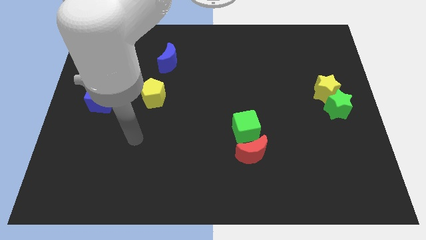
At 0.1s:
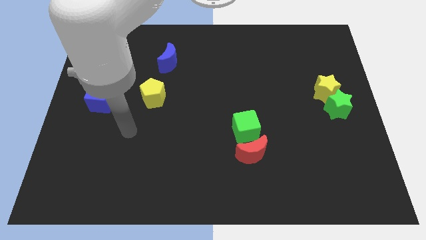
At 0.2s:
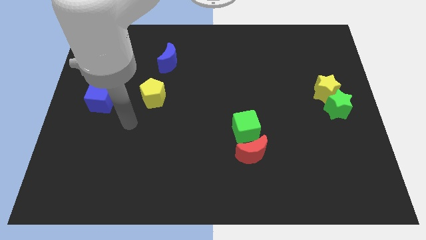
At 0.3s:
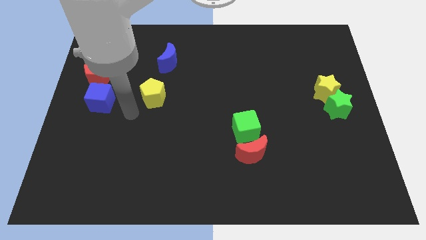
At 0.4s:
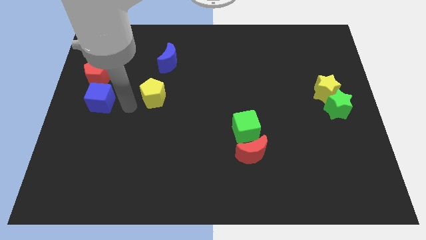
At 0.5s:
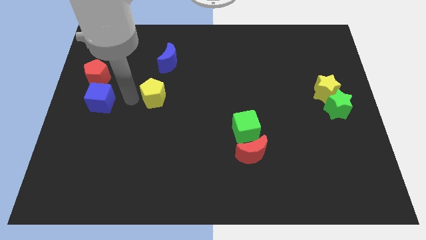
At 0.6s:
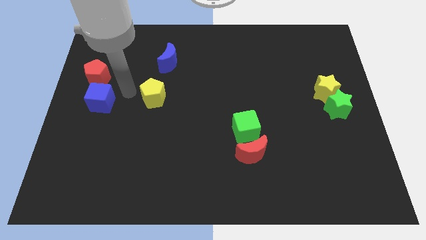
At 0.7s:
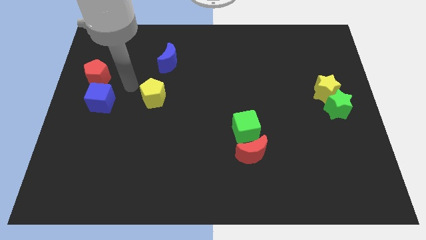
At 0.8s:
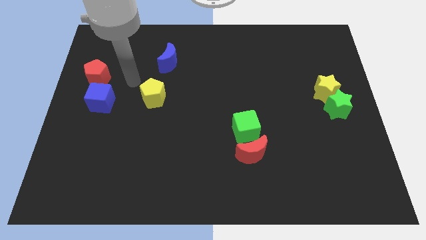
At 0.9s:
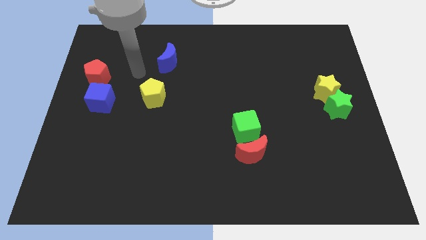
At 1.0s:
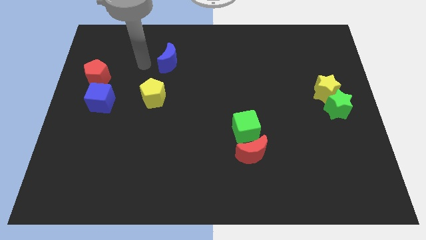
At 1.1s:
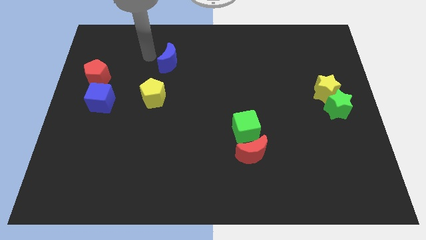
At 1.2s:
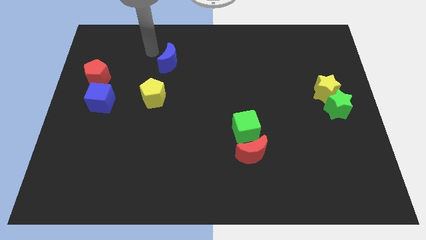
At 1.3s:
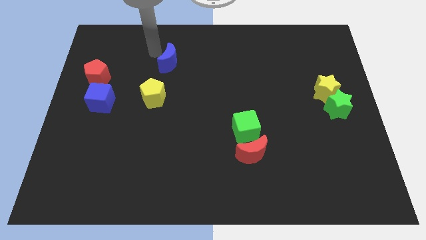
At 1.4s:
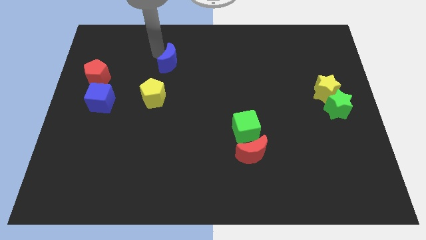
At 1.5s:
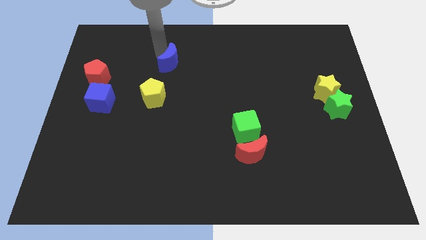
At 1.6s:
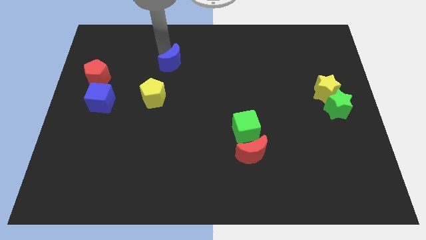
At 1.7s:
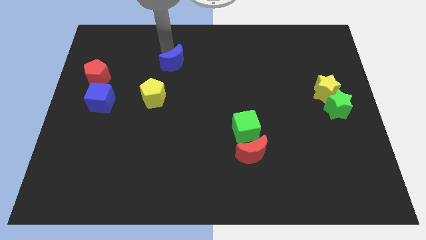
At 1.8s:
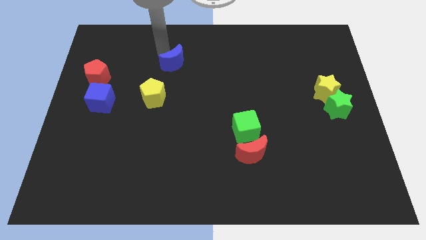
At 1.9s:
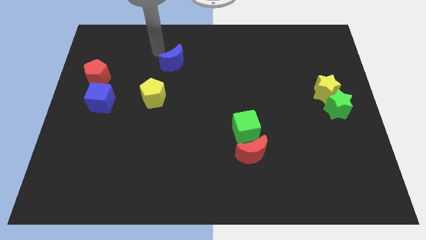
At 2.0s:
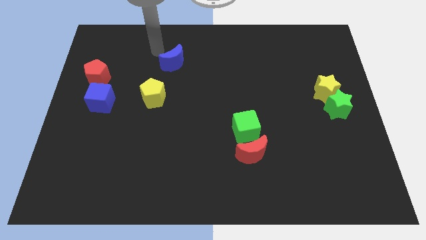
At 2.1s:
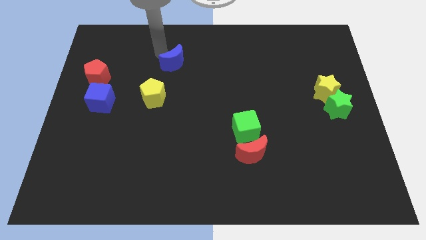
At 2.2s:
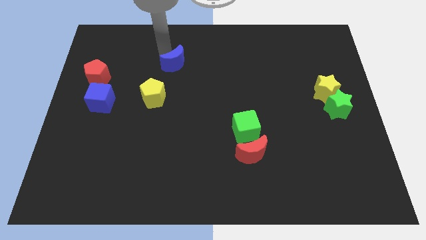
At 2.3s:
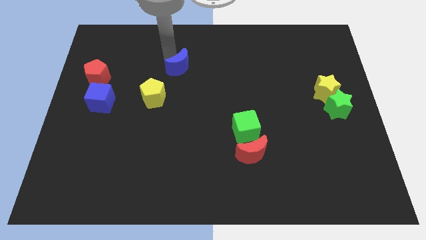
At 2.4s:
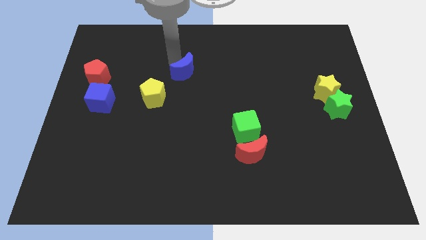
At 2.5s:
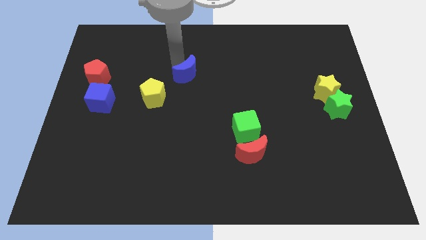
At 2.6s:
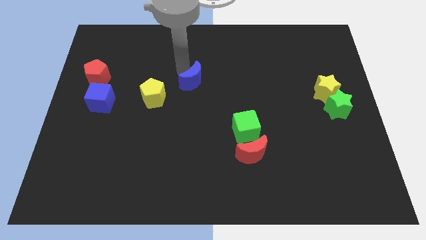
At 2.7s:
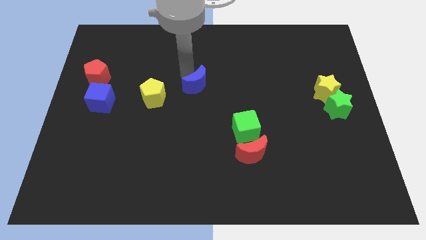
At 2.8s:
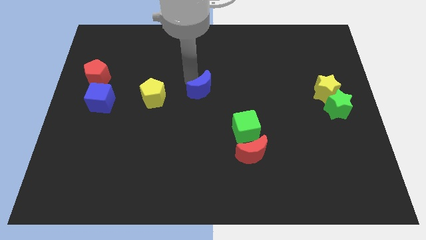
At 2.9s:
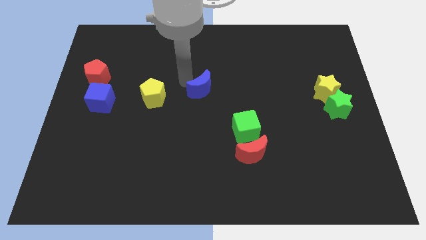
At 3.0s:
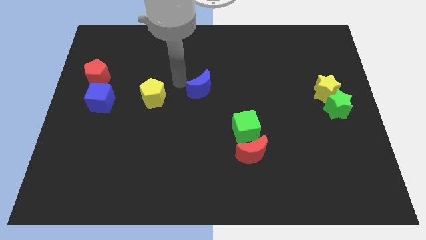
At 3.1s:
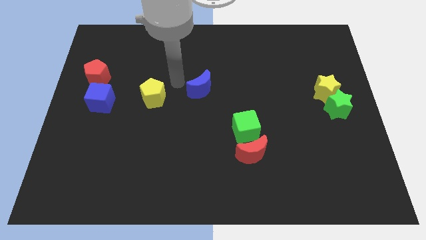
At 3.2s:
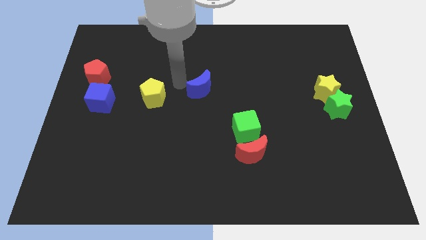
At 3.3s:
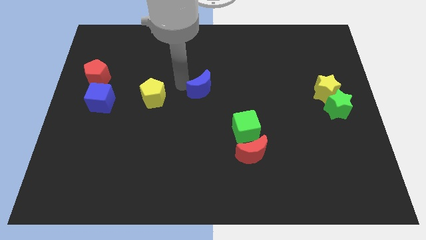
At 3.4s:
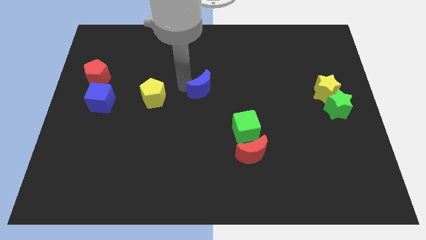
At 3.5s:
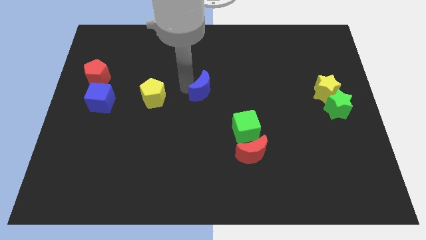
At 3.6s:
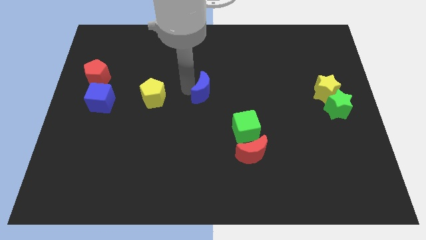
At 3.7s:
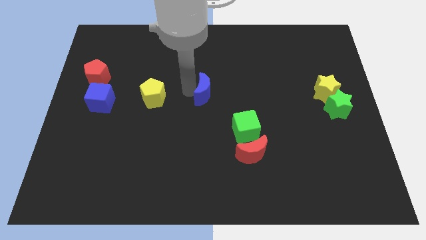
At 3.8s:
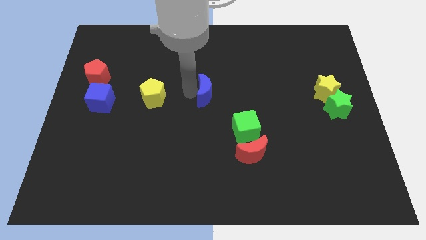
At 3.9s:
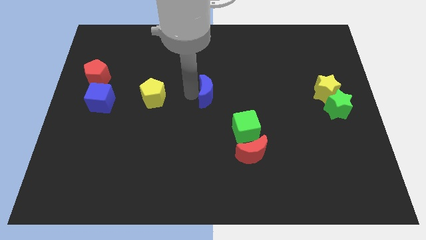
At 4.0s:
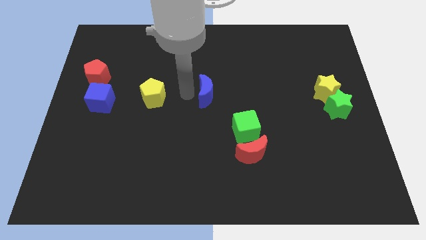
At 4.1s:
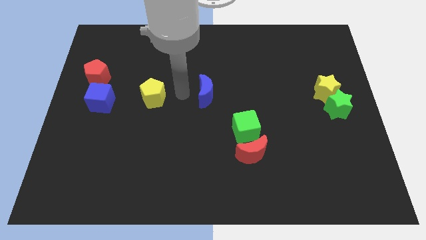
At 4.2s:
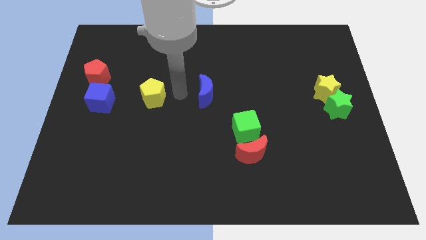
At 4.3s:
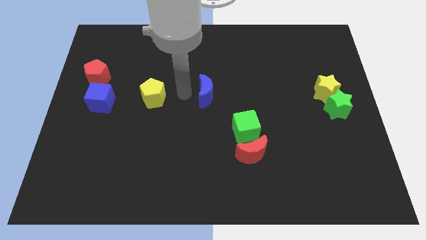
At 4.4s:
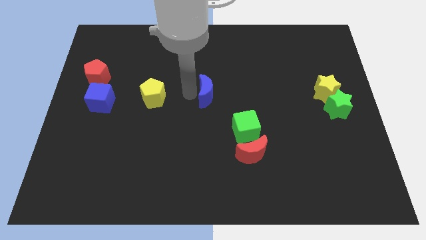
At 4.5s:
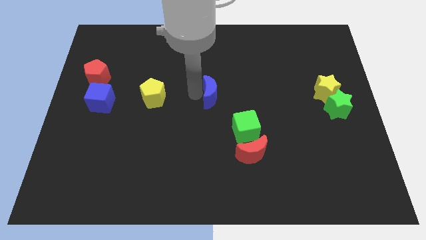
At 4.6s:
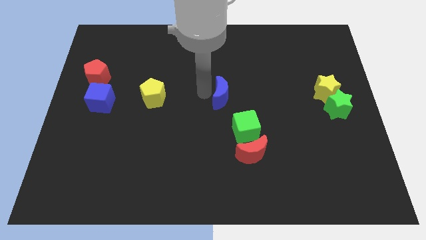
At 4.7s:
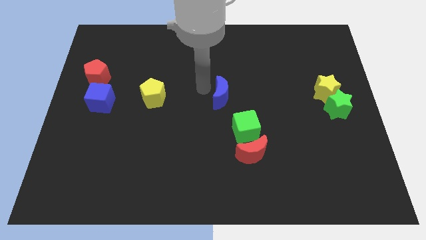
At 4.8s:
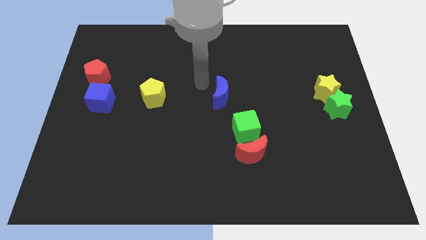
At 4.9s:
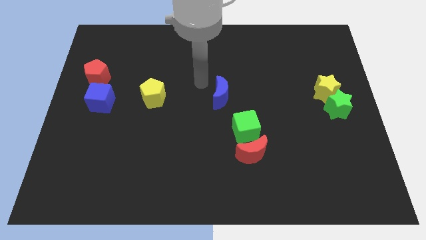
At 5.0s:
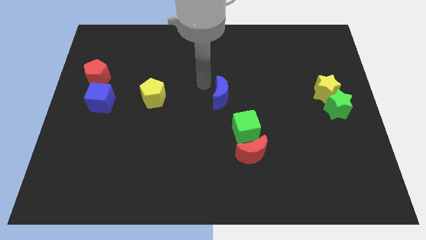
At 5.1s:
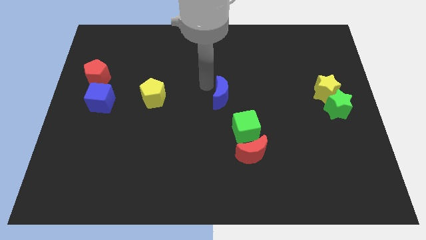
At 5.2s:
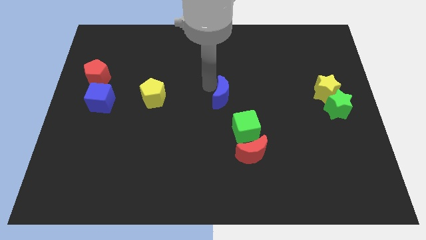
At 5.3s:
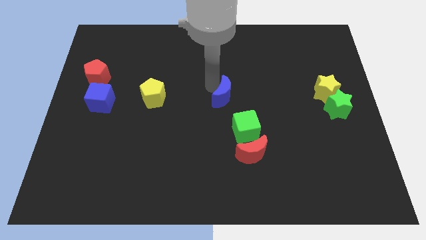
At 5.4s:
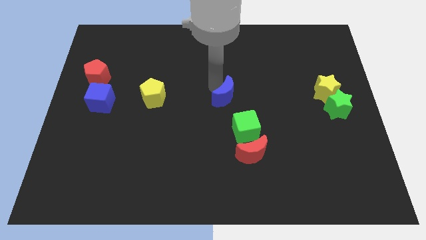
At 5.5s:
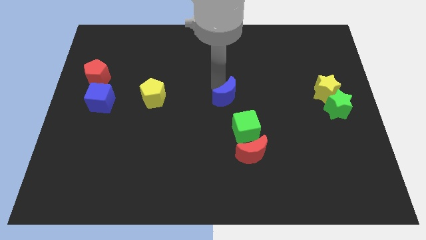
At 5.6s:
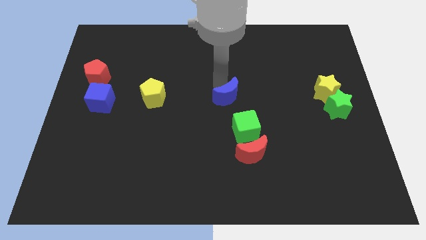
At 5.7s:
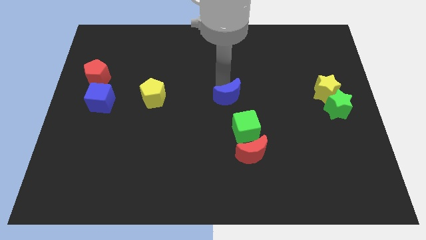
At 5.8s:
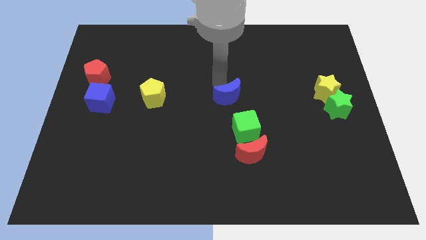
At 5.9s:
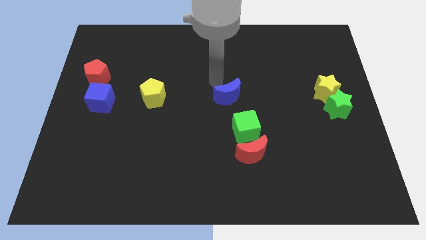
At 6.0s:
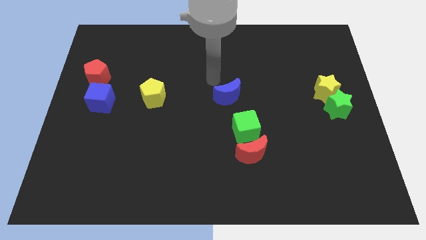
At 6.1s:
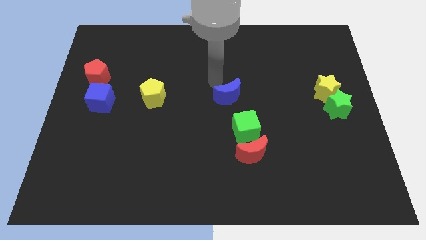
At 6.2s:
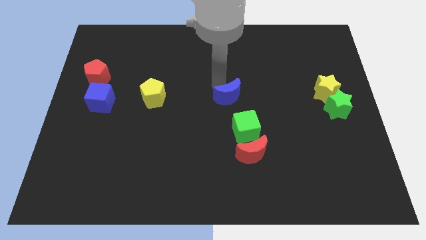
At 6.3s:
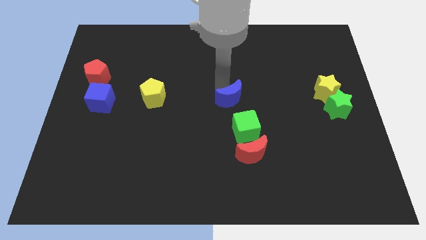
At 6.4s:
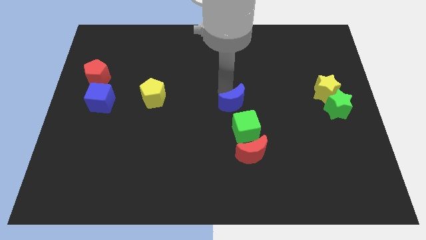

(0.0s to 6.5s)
move the blue moon down and right diagonally

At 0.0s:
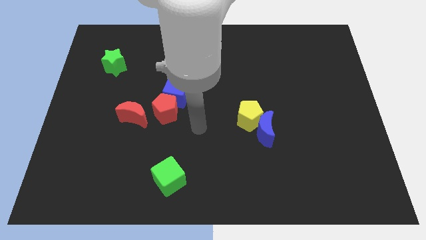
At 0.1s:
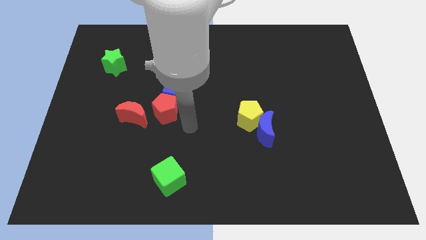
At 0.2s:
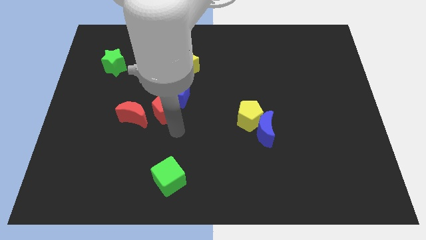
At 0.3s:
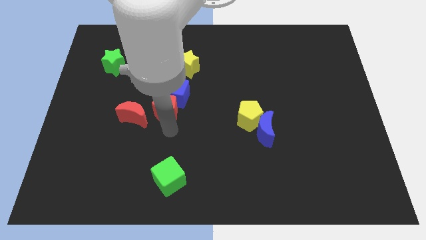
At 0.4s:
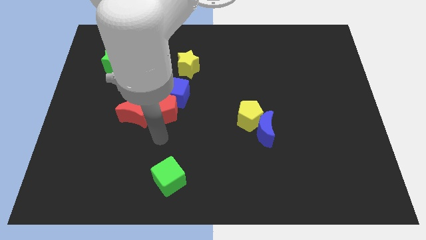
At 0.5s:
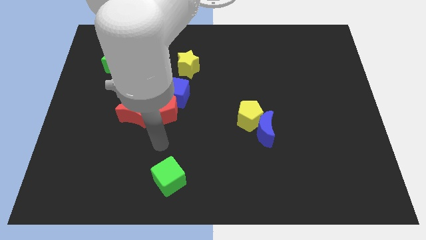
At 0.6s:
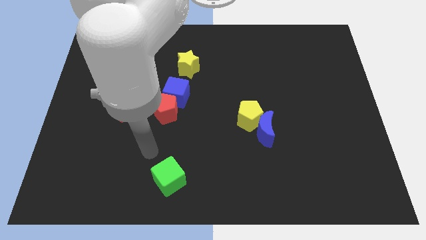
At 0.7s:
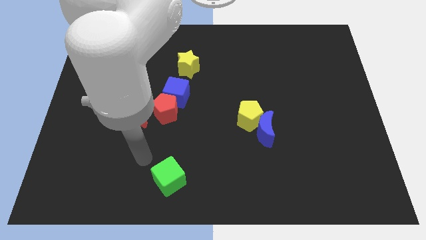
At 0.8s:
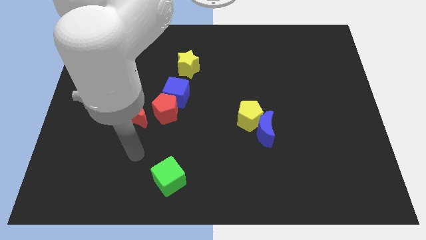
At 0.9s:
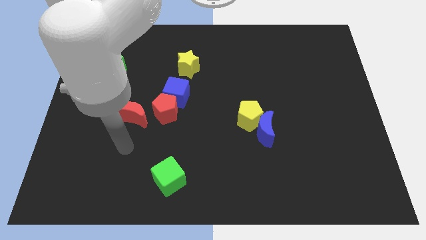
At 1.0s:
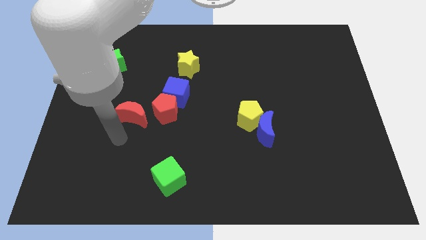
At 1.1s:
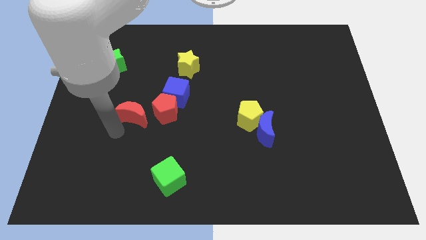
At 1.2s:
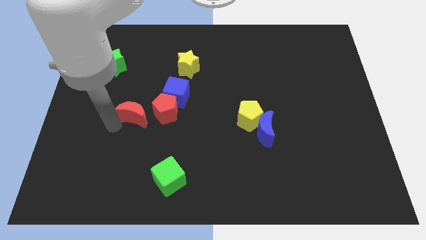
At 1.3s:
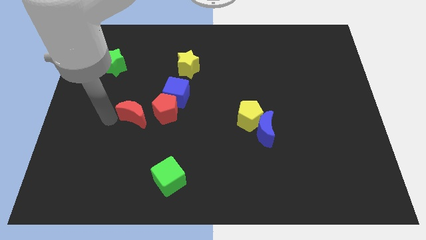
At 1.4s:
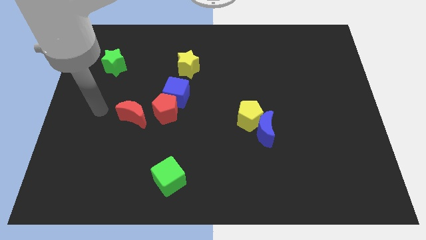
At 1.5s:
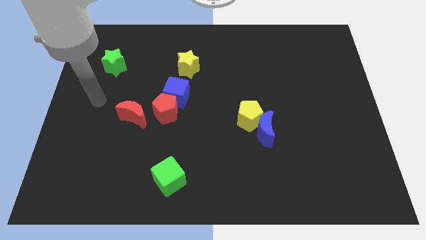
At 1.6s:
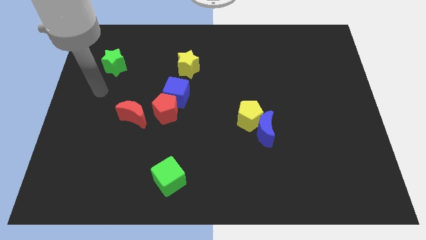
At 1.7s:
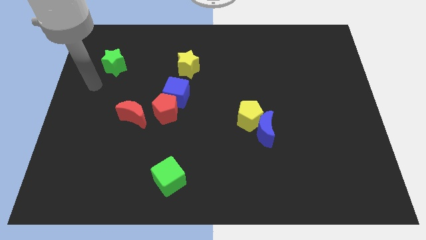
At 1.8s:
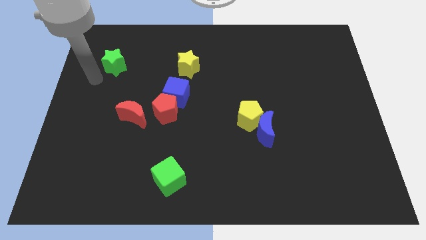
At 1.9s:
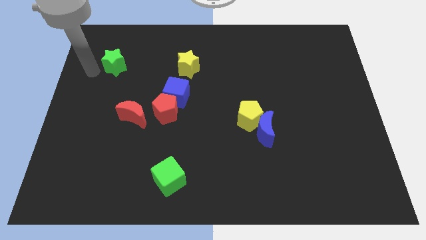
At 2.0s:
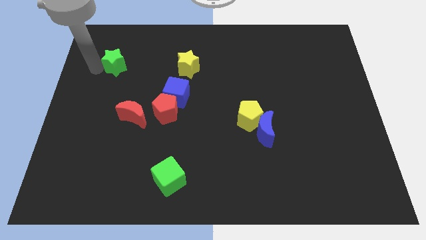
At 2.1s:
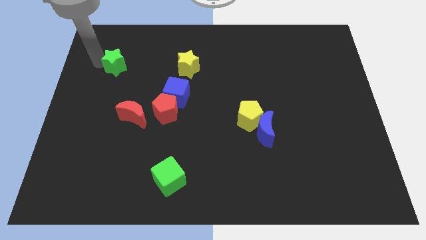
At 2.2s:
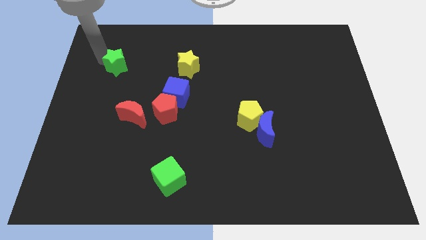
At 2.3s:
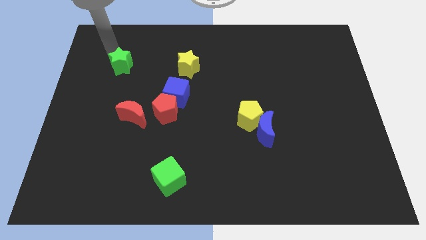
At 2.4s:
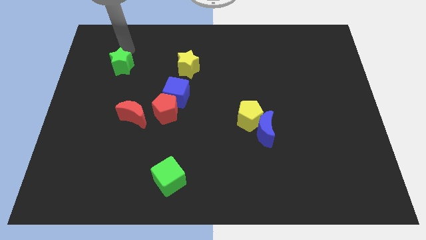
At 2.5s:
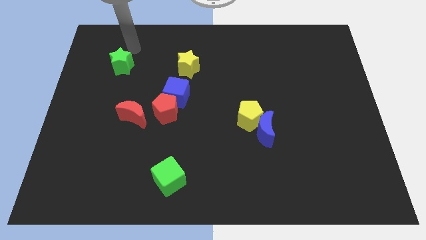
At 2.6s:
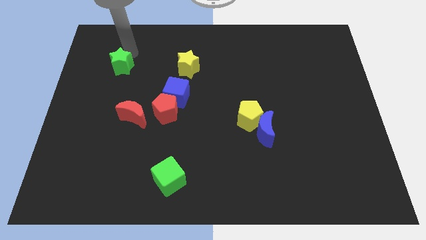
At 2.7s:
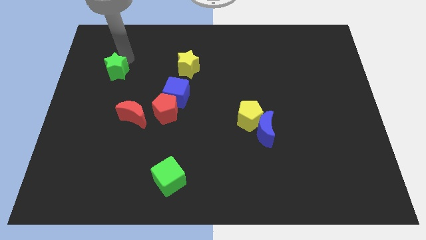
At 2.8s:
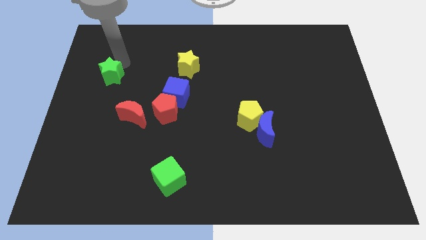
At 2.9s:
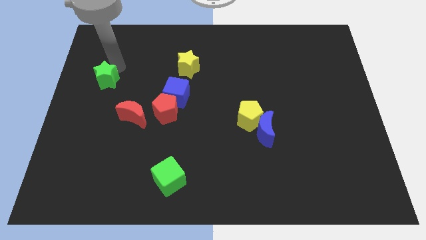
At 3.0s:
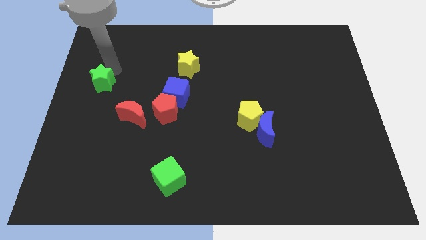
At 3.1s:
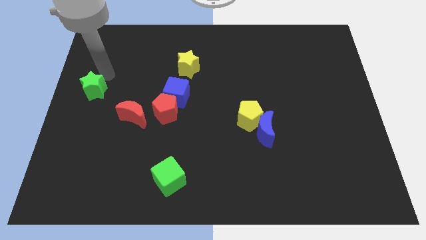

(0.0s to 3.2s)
slightly slide the green star down
